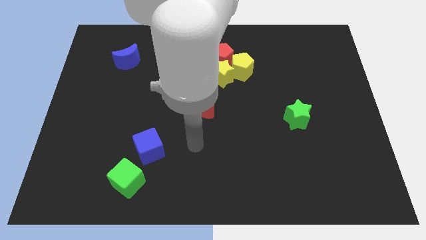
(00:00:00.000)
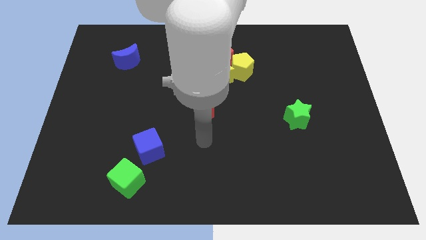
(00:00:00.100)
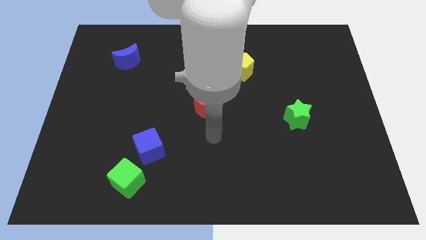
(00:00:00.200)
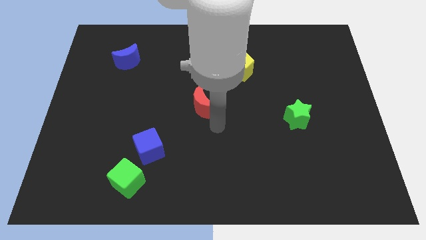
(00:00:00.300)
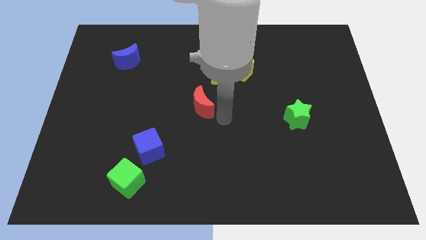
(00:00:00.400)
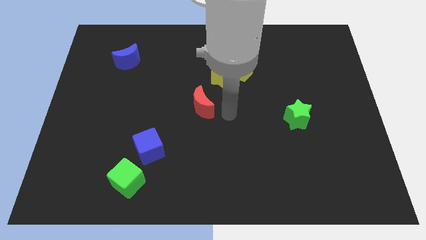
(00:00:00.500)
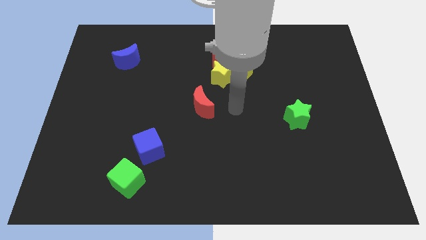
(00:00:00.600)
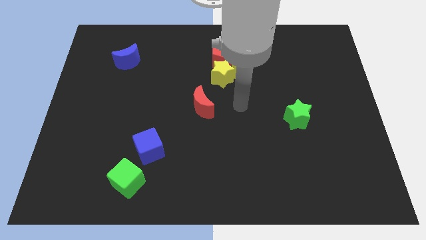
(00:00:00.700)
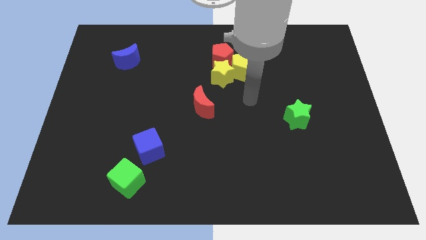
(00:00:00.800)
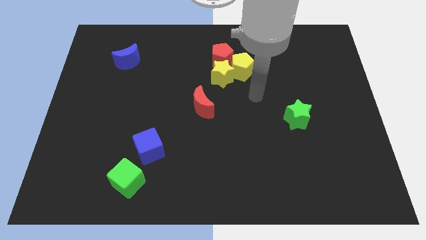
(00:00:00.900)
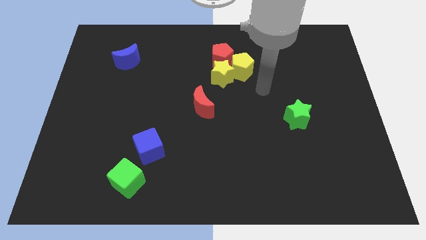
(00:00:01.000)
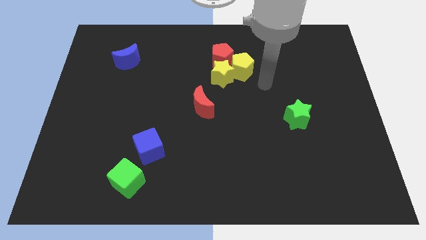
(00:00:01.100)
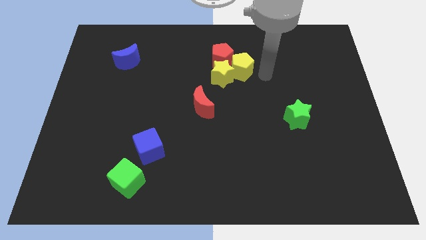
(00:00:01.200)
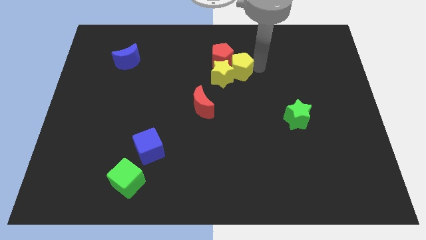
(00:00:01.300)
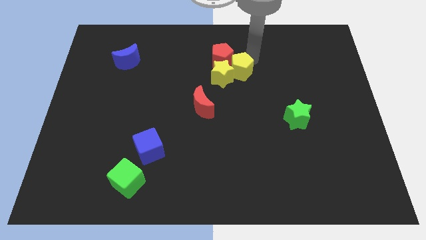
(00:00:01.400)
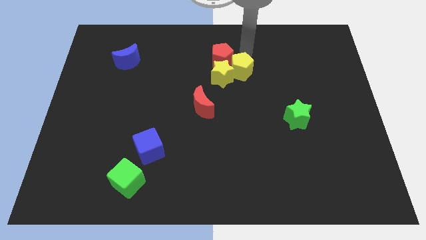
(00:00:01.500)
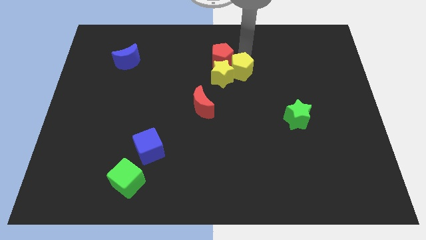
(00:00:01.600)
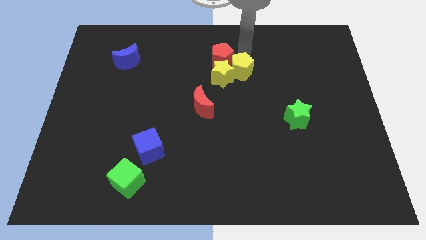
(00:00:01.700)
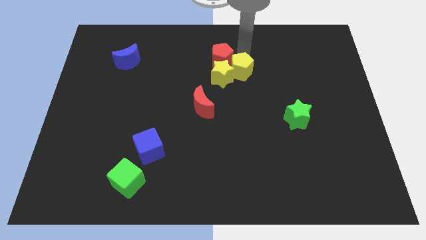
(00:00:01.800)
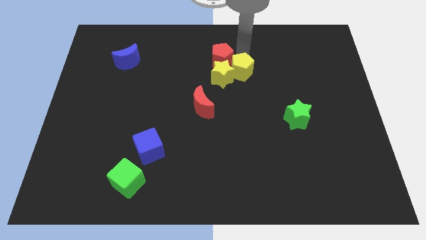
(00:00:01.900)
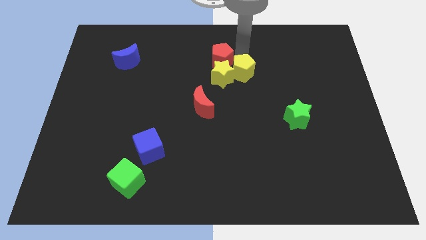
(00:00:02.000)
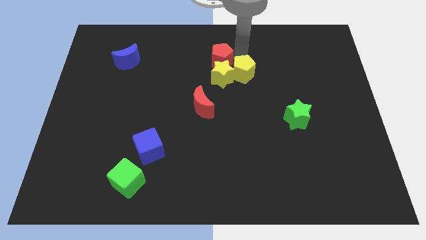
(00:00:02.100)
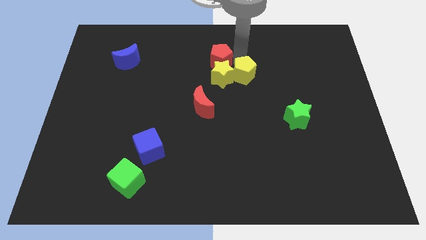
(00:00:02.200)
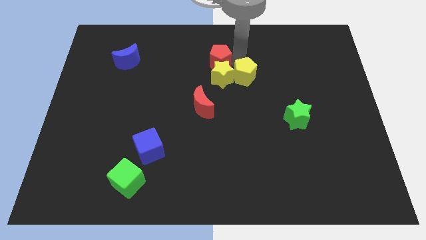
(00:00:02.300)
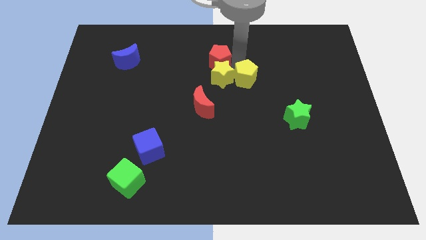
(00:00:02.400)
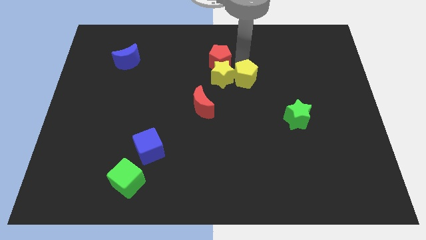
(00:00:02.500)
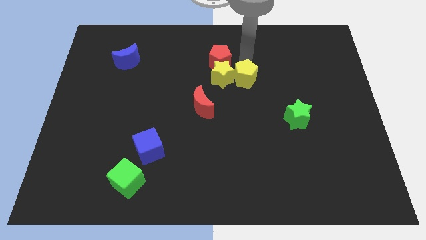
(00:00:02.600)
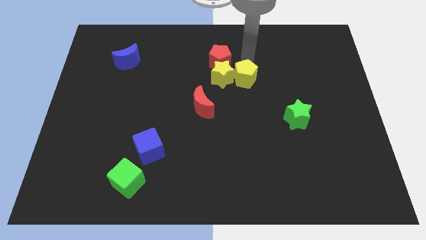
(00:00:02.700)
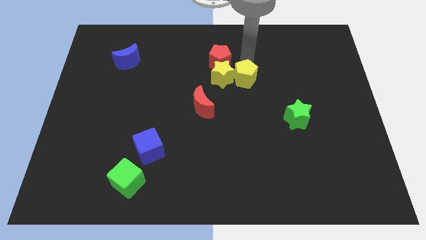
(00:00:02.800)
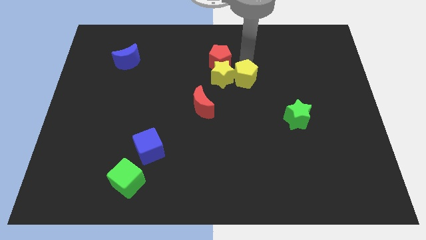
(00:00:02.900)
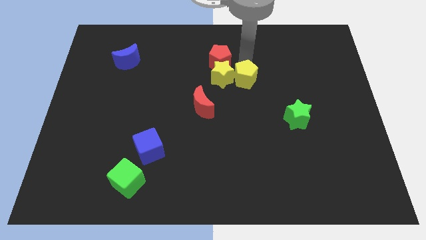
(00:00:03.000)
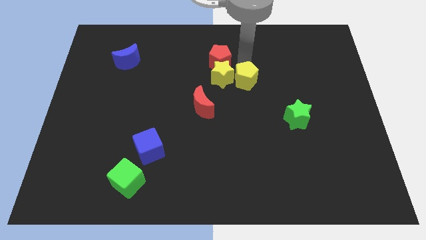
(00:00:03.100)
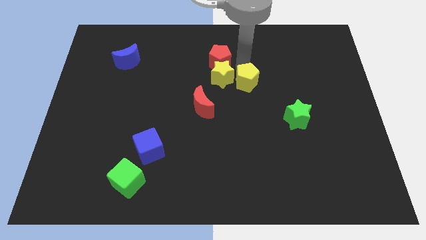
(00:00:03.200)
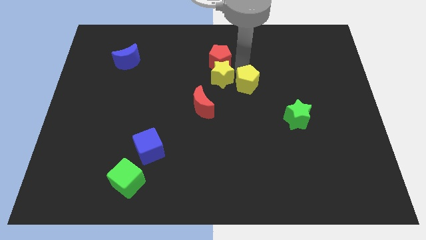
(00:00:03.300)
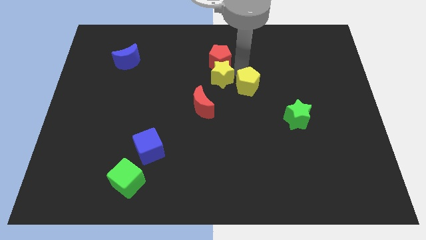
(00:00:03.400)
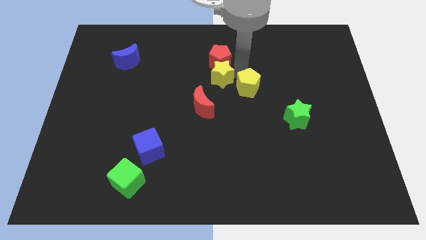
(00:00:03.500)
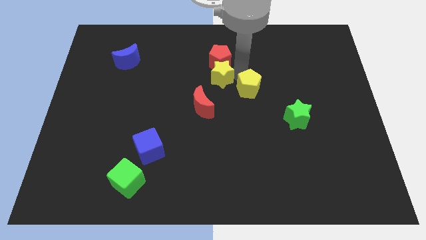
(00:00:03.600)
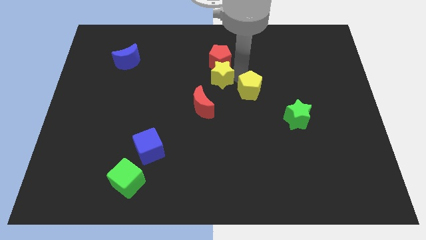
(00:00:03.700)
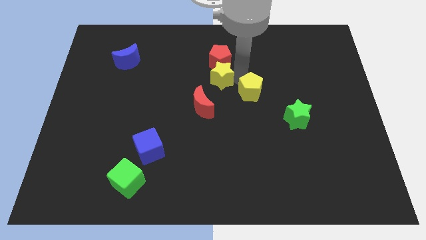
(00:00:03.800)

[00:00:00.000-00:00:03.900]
slightly push the yellow pentagon downwards

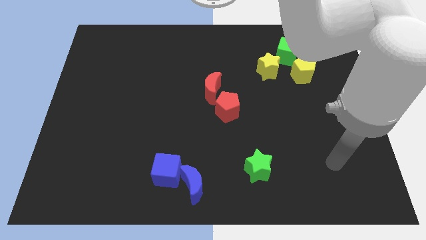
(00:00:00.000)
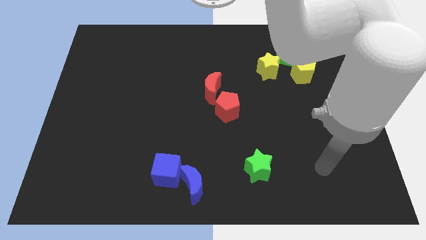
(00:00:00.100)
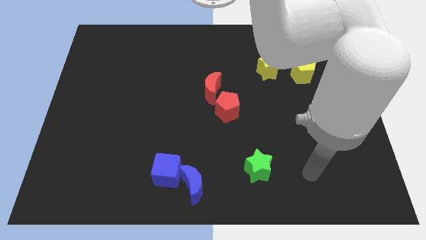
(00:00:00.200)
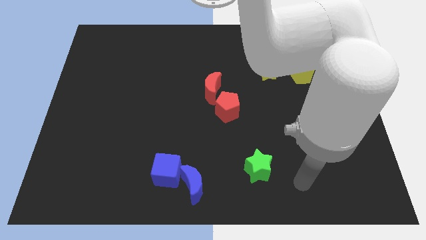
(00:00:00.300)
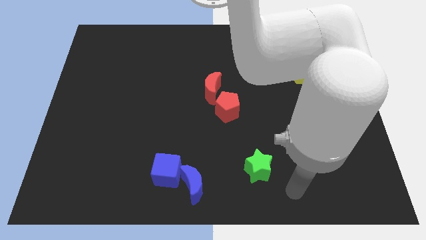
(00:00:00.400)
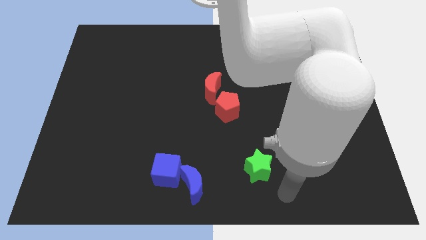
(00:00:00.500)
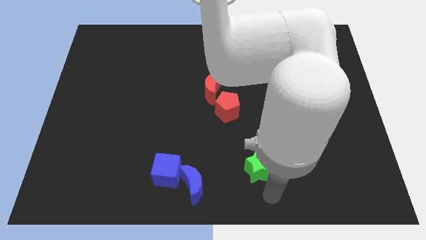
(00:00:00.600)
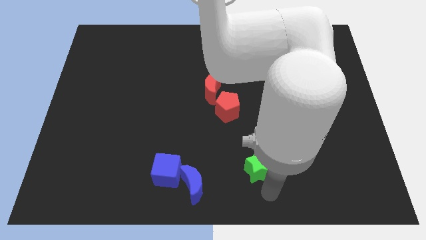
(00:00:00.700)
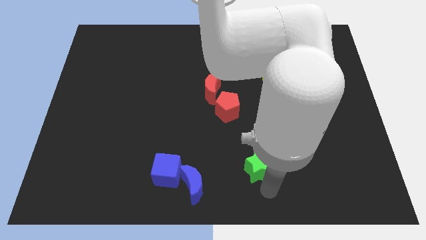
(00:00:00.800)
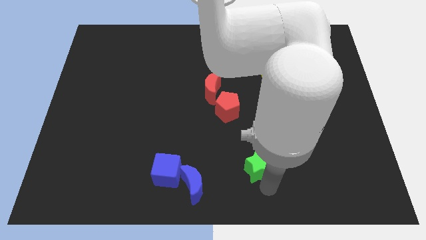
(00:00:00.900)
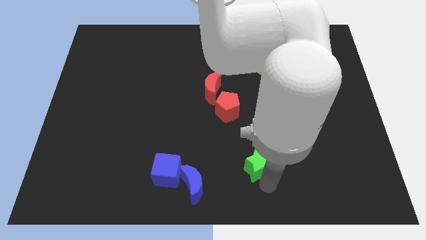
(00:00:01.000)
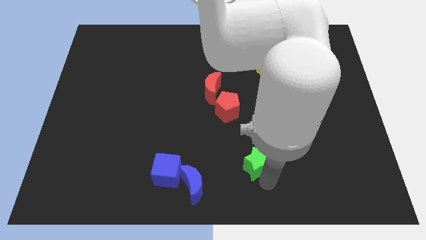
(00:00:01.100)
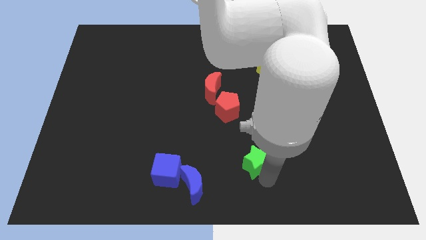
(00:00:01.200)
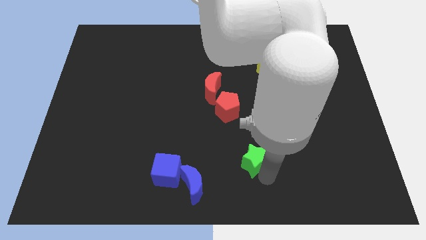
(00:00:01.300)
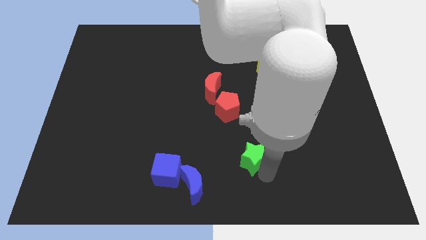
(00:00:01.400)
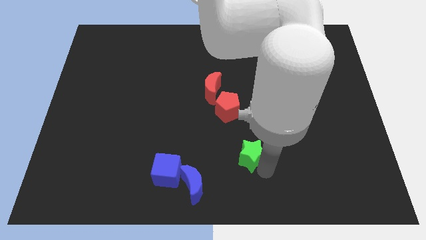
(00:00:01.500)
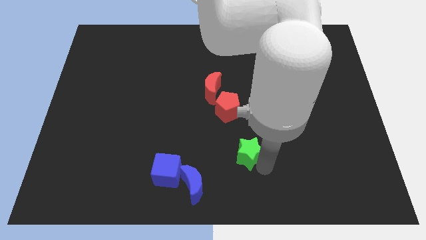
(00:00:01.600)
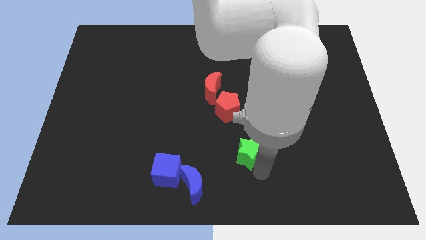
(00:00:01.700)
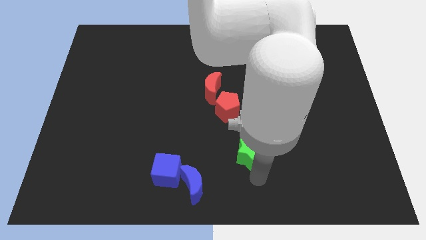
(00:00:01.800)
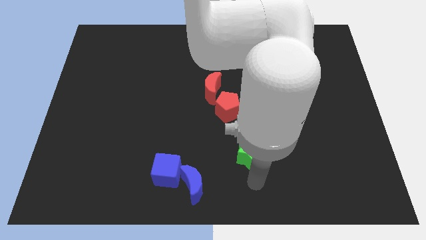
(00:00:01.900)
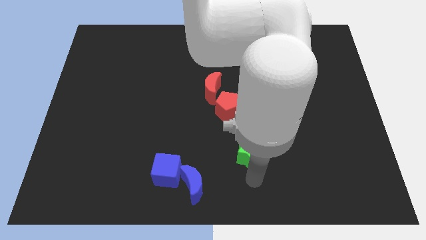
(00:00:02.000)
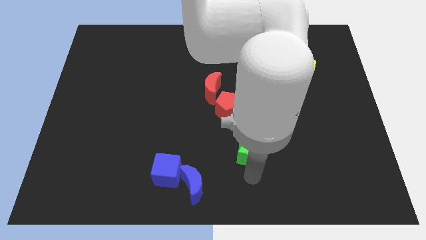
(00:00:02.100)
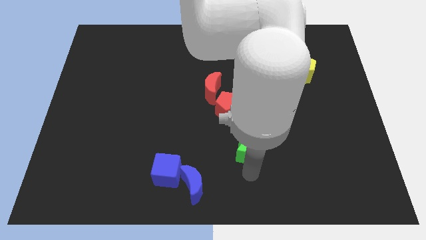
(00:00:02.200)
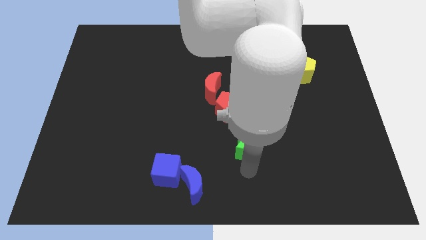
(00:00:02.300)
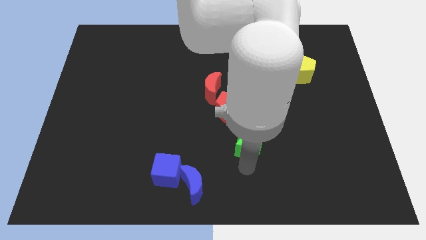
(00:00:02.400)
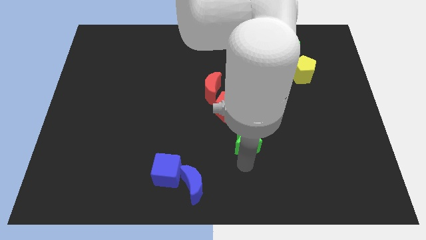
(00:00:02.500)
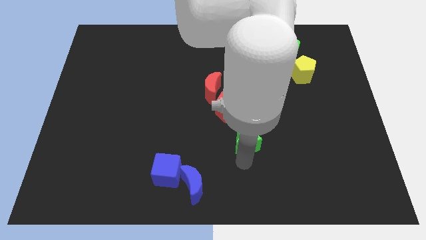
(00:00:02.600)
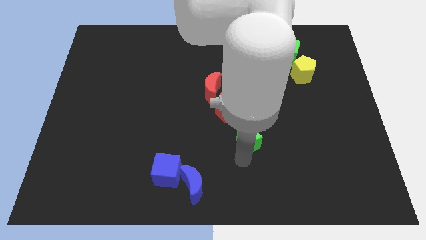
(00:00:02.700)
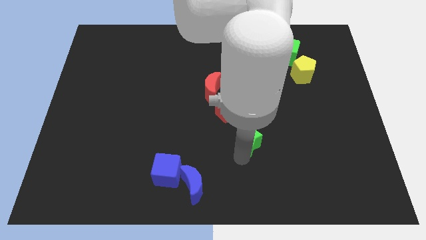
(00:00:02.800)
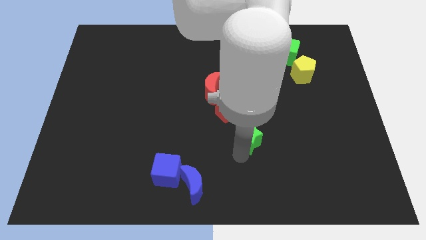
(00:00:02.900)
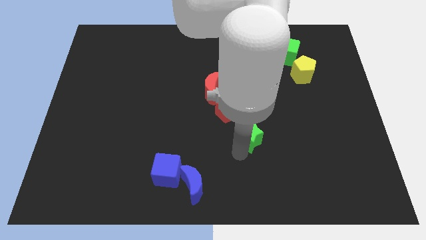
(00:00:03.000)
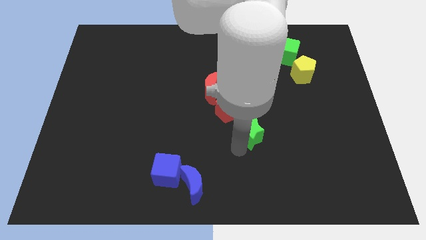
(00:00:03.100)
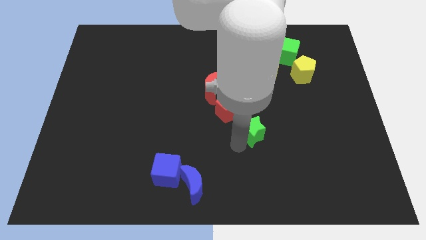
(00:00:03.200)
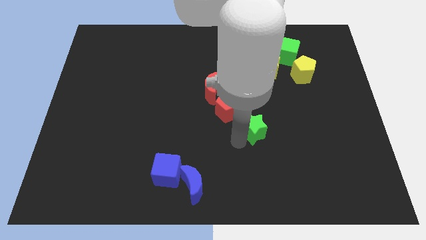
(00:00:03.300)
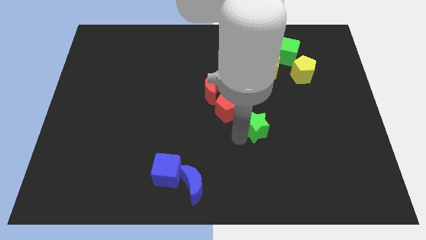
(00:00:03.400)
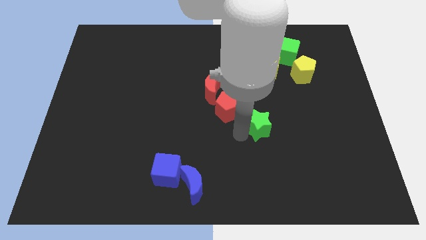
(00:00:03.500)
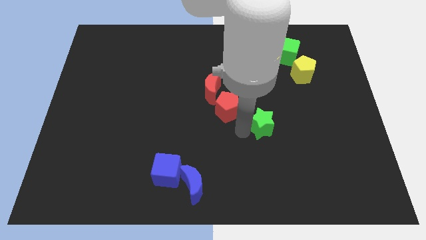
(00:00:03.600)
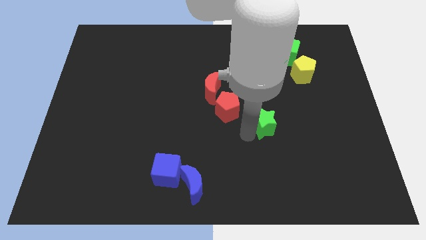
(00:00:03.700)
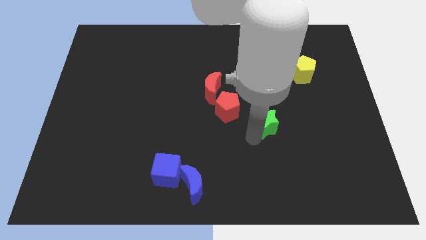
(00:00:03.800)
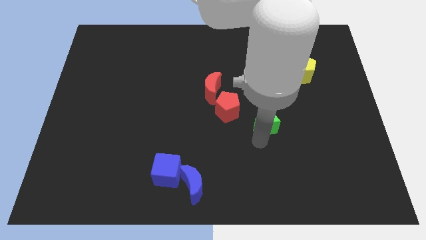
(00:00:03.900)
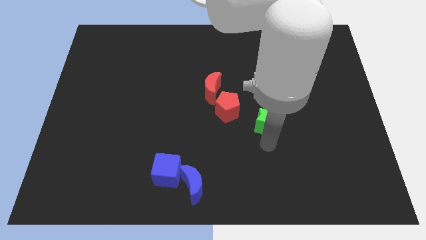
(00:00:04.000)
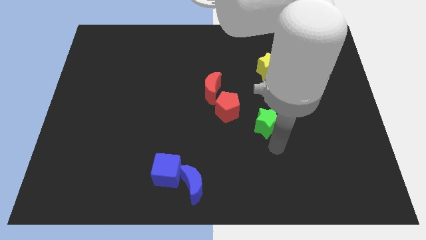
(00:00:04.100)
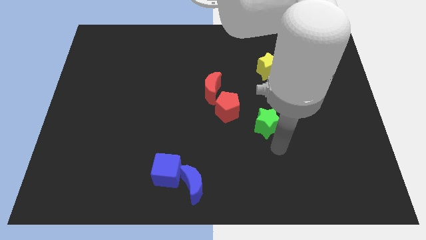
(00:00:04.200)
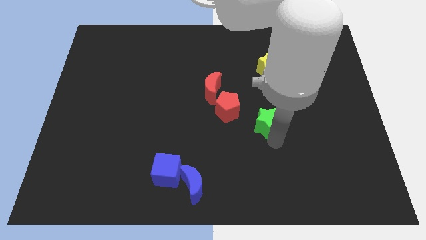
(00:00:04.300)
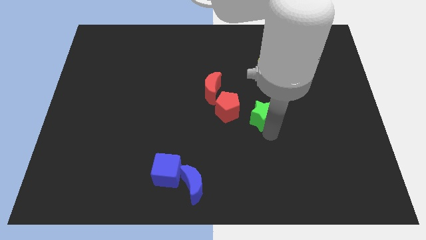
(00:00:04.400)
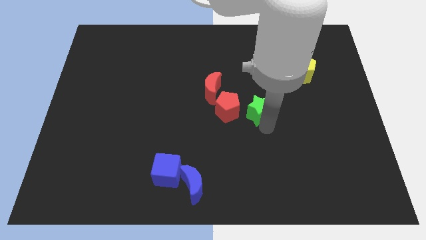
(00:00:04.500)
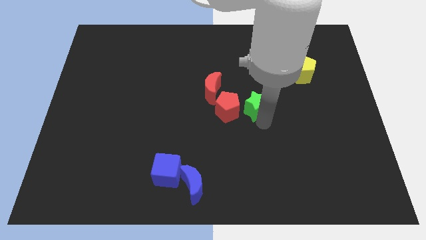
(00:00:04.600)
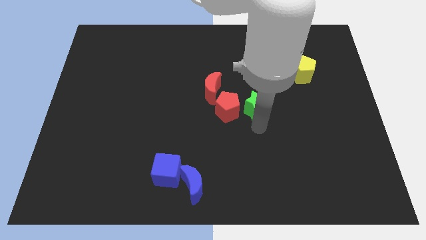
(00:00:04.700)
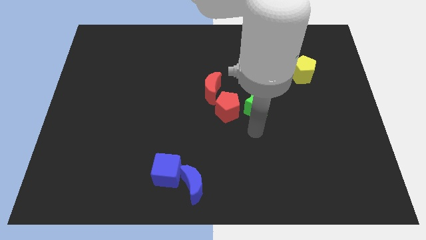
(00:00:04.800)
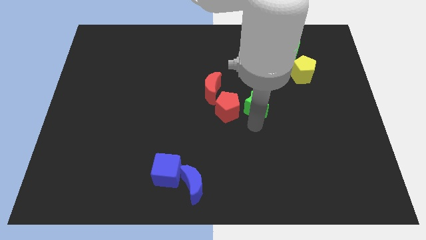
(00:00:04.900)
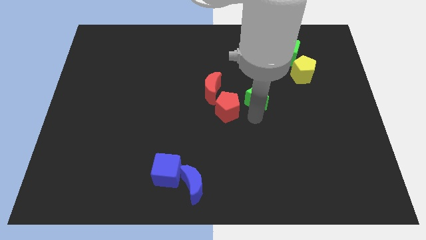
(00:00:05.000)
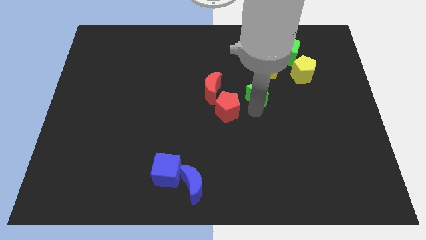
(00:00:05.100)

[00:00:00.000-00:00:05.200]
push the green star up
